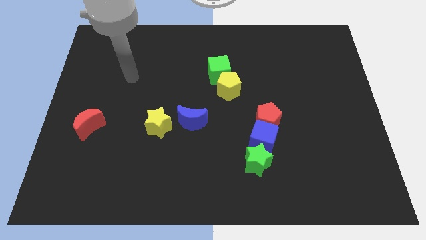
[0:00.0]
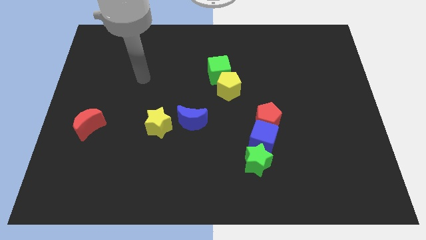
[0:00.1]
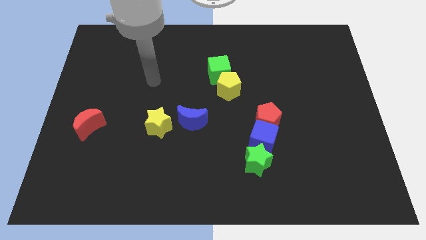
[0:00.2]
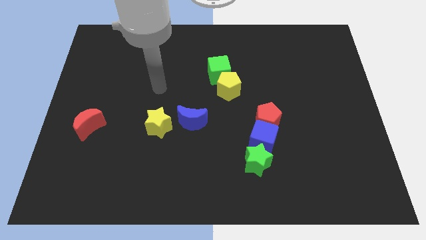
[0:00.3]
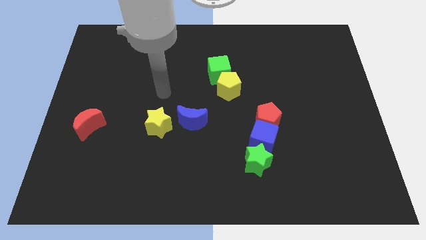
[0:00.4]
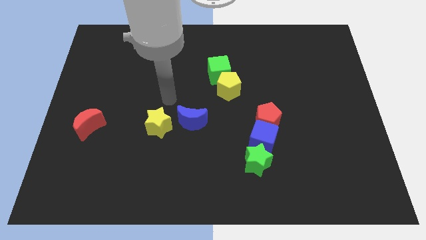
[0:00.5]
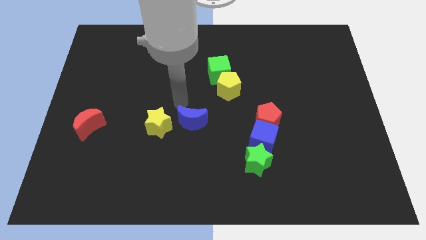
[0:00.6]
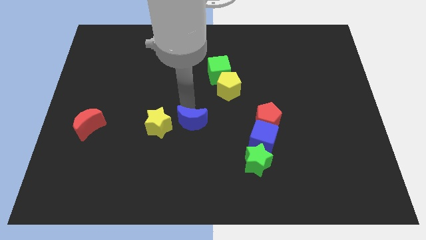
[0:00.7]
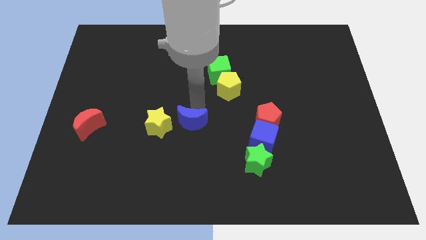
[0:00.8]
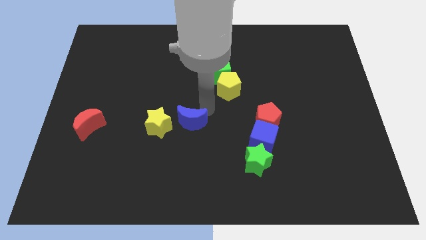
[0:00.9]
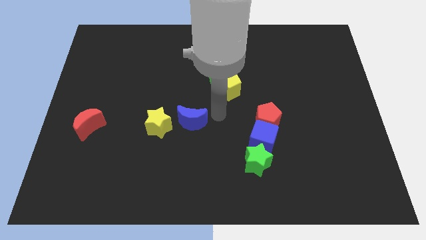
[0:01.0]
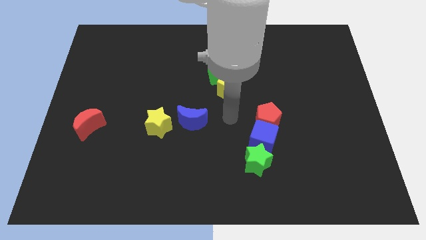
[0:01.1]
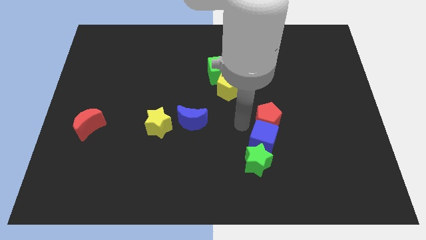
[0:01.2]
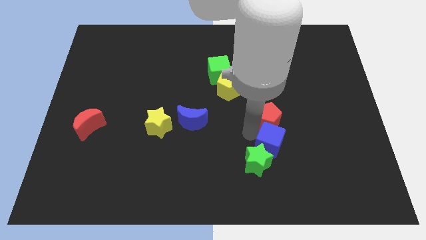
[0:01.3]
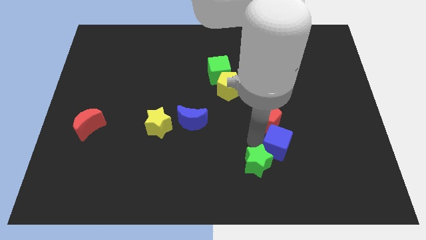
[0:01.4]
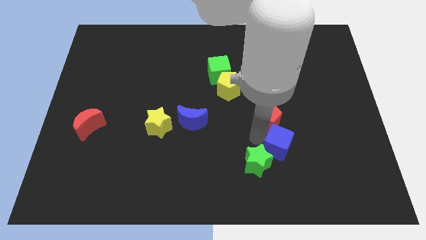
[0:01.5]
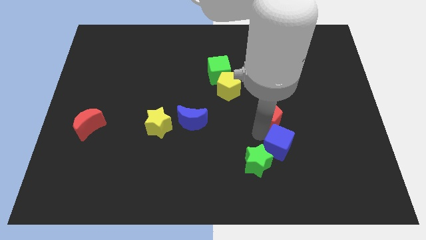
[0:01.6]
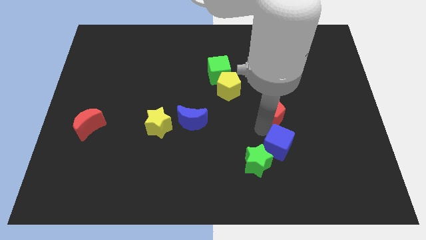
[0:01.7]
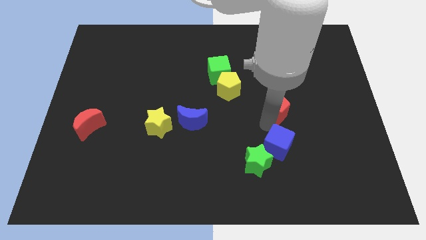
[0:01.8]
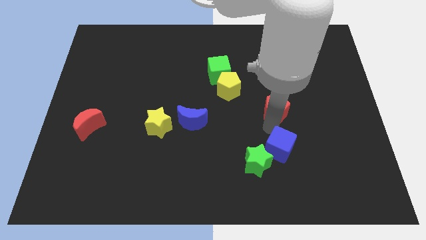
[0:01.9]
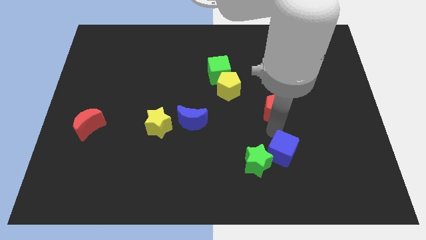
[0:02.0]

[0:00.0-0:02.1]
move the red pentagon away from the blue cube

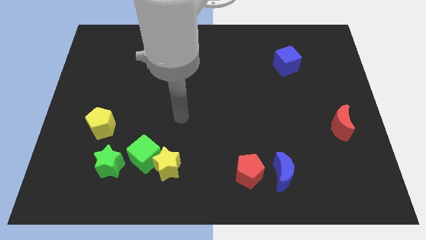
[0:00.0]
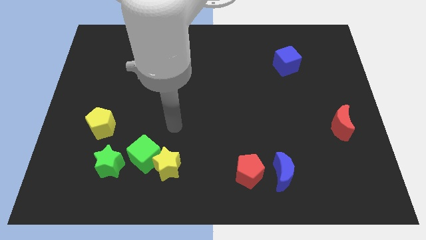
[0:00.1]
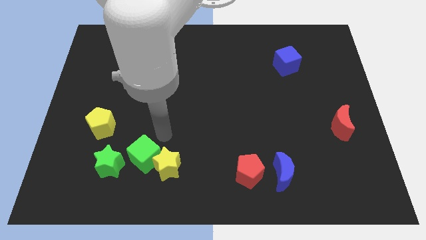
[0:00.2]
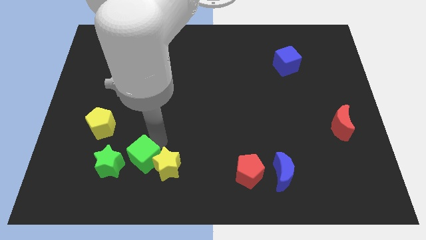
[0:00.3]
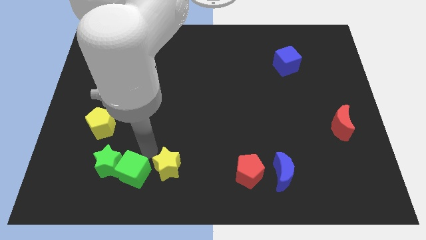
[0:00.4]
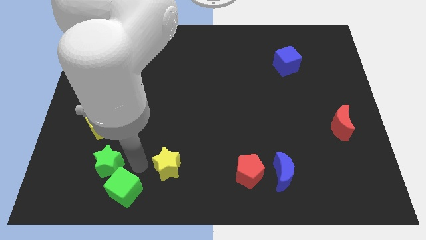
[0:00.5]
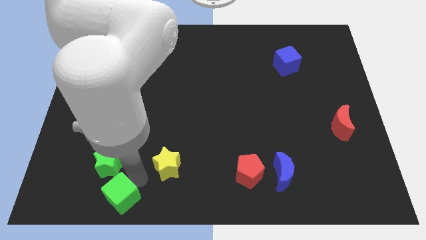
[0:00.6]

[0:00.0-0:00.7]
pull the yellow star apart from the green cube

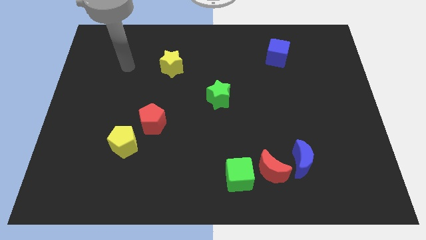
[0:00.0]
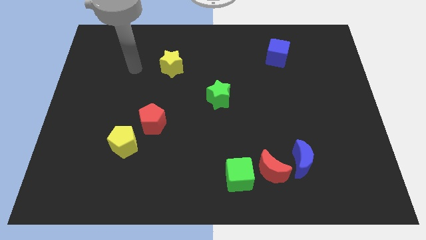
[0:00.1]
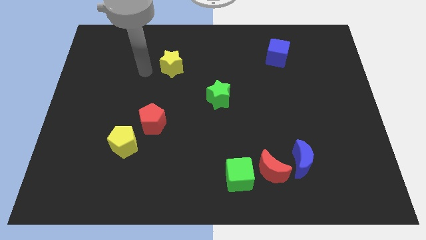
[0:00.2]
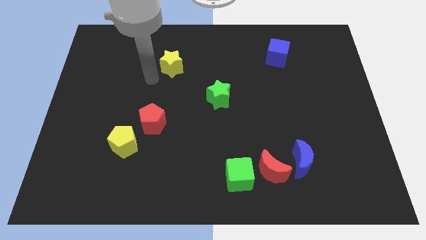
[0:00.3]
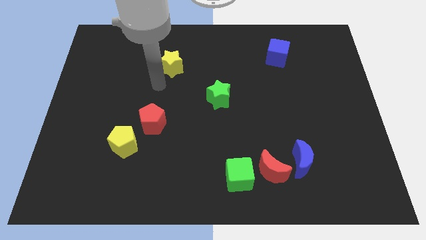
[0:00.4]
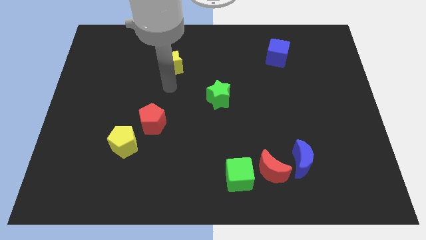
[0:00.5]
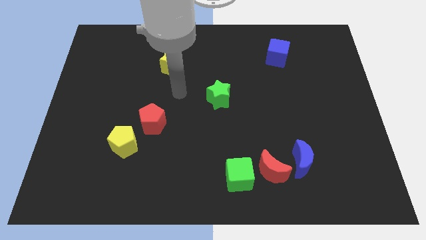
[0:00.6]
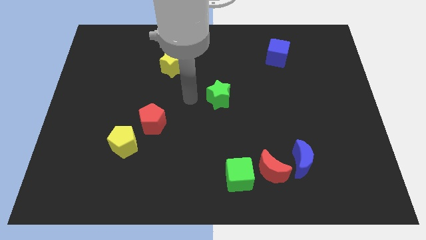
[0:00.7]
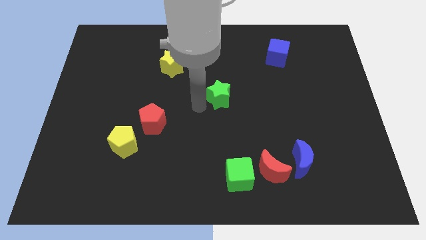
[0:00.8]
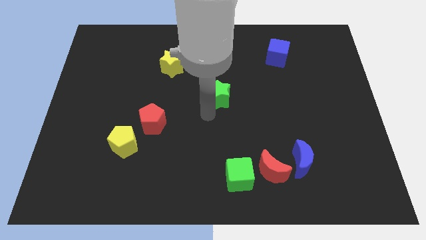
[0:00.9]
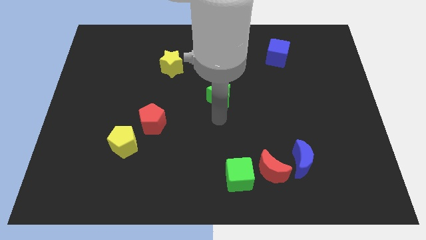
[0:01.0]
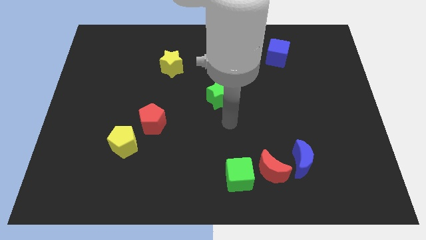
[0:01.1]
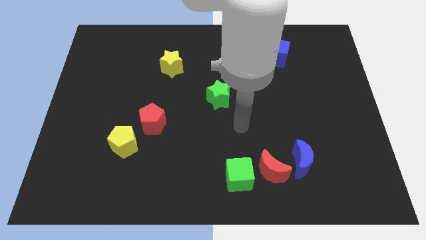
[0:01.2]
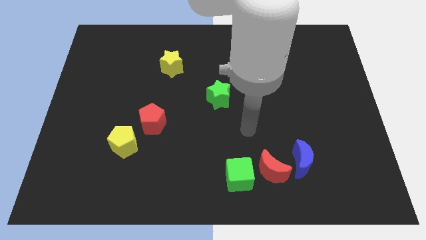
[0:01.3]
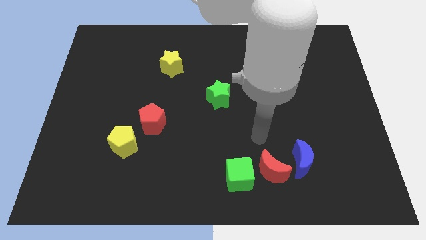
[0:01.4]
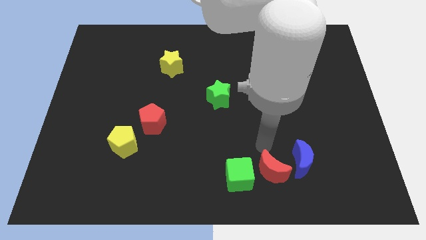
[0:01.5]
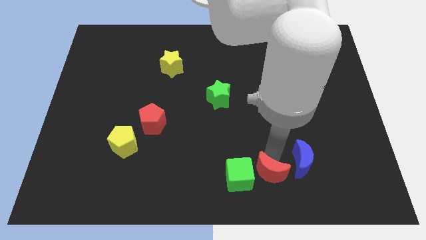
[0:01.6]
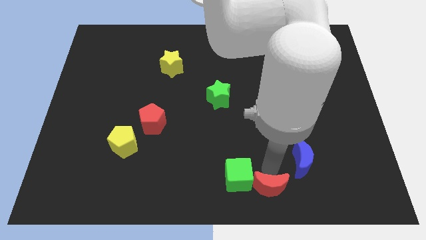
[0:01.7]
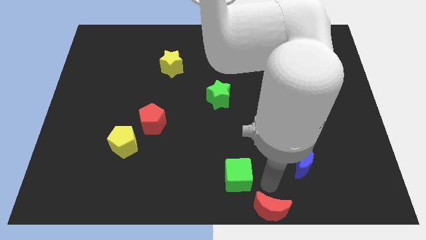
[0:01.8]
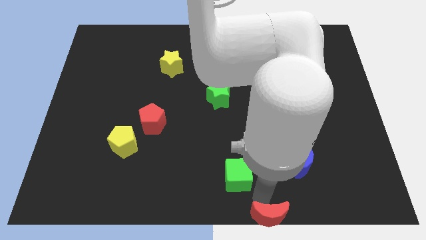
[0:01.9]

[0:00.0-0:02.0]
pull the green cube apart from the red moon

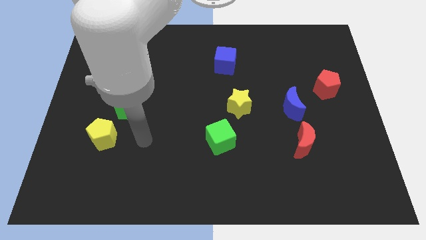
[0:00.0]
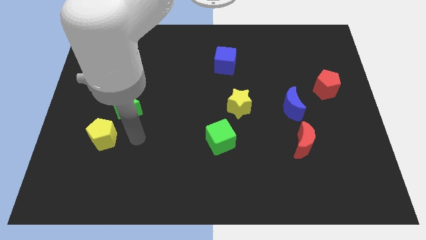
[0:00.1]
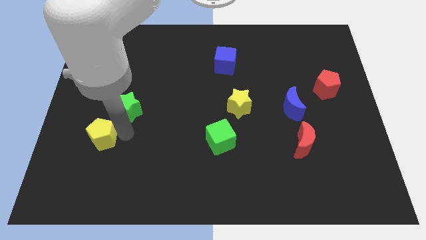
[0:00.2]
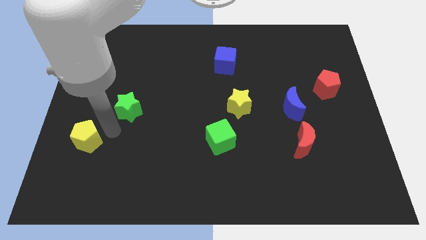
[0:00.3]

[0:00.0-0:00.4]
separate the green star from the yellow pentagon

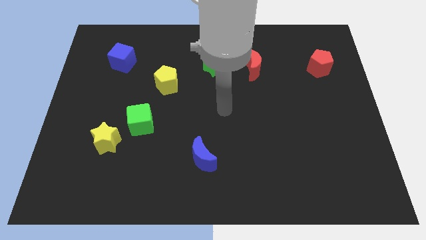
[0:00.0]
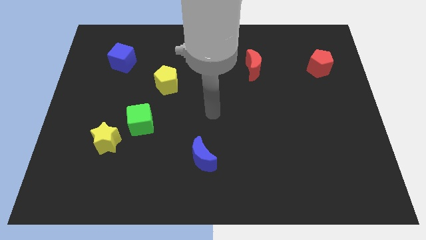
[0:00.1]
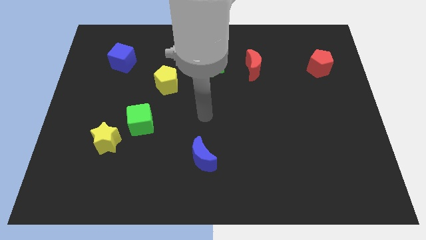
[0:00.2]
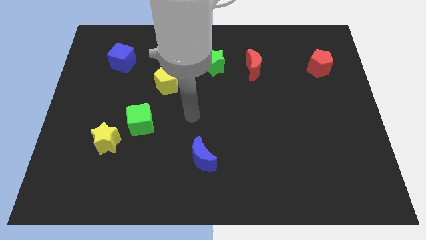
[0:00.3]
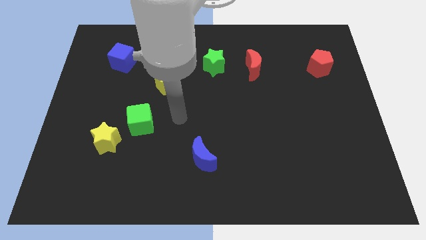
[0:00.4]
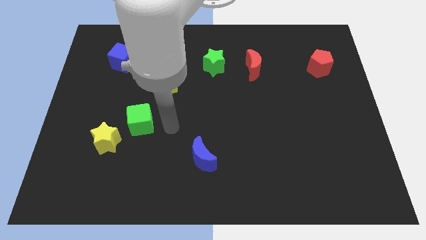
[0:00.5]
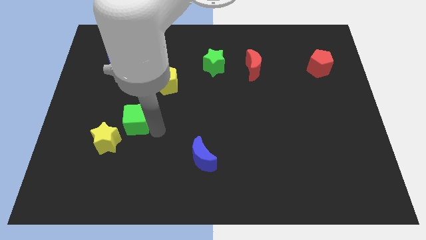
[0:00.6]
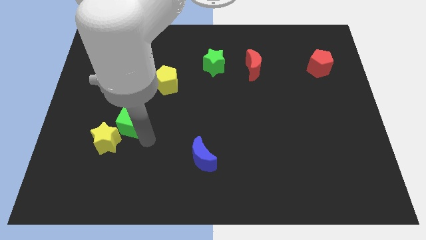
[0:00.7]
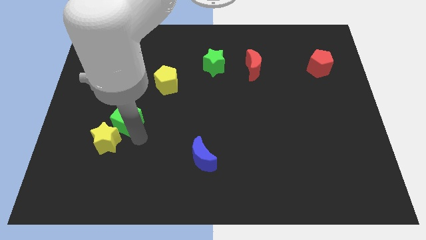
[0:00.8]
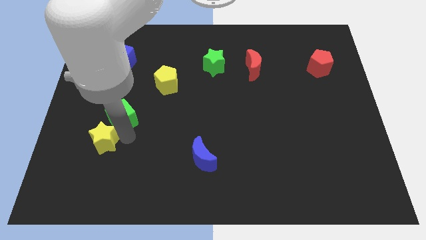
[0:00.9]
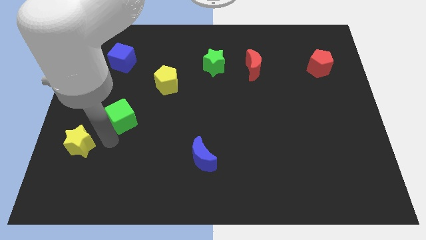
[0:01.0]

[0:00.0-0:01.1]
separate the green cube from the yellow star

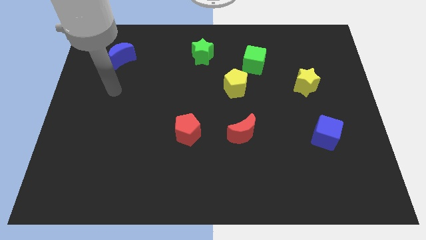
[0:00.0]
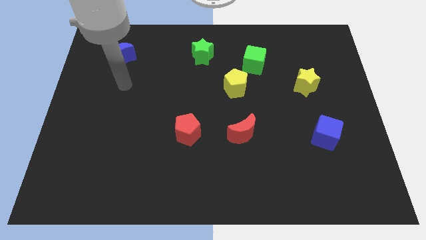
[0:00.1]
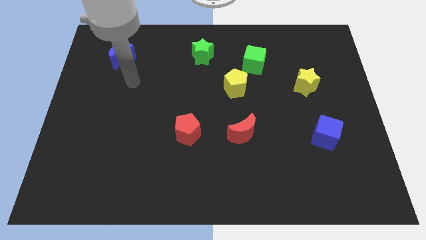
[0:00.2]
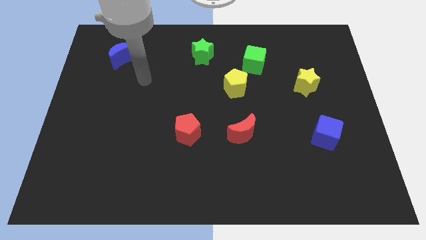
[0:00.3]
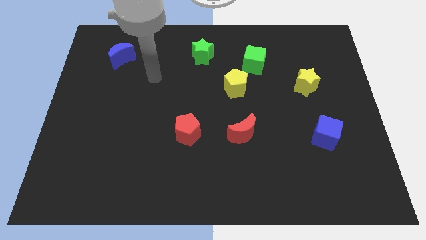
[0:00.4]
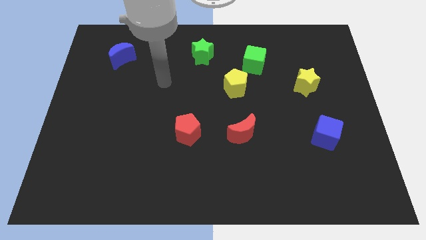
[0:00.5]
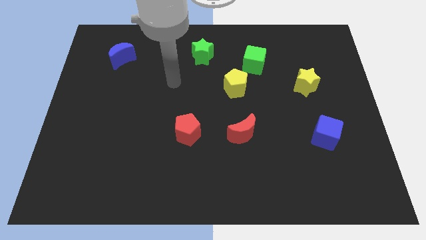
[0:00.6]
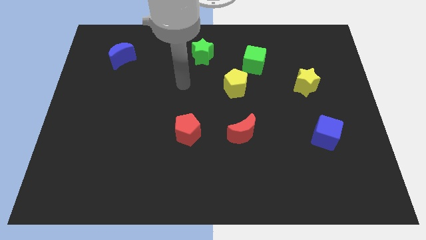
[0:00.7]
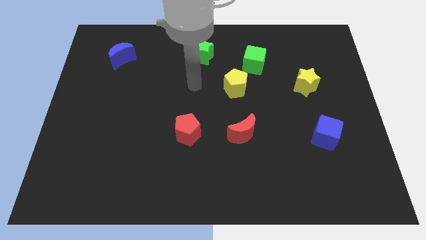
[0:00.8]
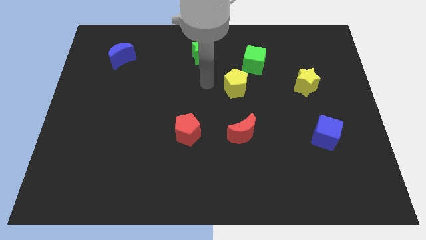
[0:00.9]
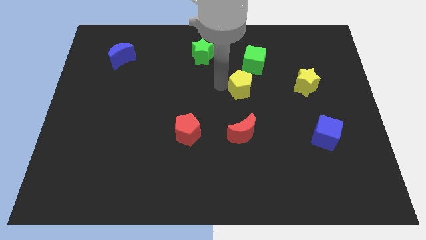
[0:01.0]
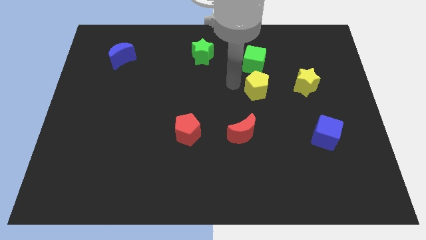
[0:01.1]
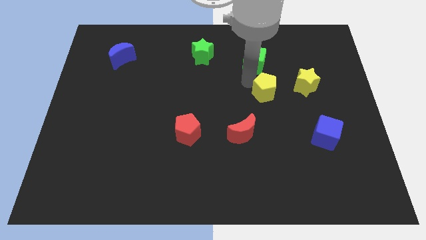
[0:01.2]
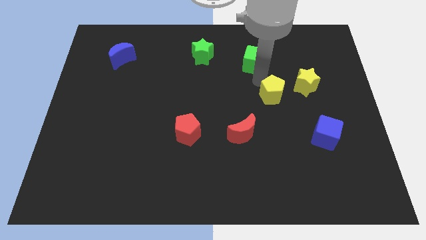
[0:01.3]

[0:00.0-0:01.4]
move the green cube away from the yellow pentagon

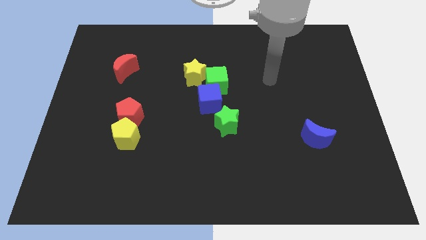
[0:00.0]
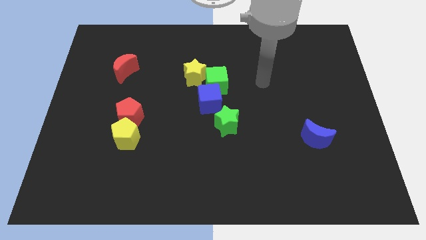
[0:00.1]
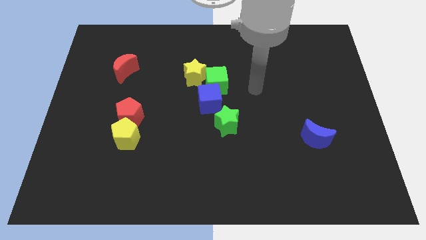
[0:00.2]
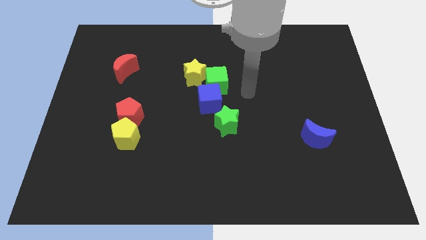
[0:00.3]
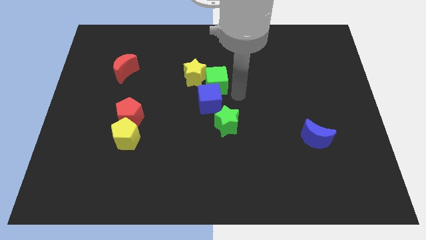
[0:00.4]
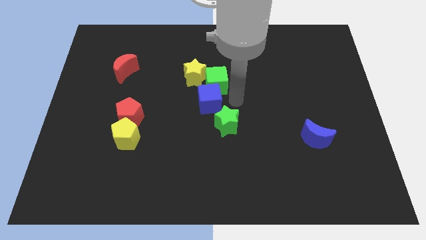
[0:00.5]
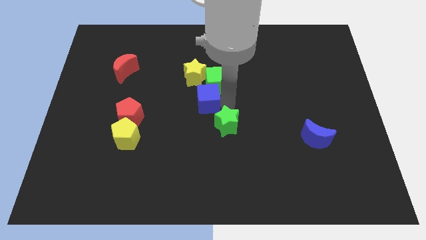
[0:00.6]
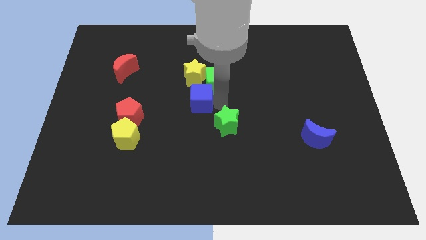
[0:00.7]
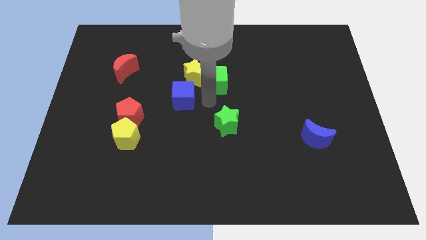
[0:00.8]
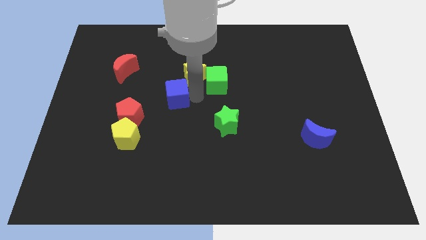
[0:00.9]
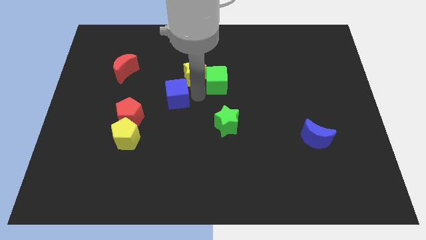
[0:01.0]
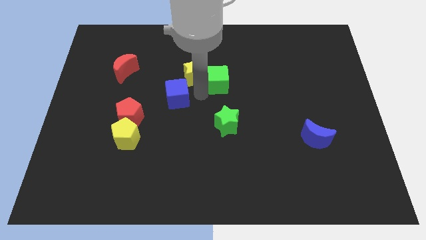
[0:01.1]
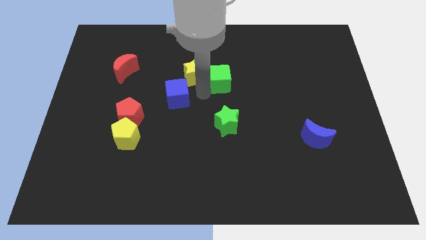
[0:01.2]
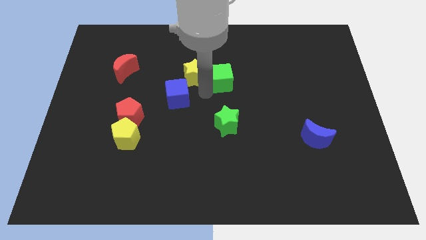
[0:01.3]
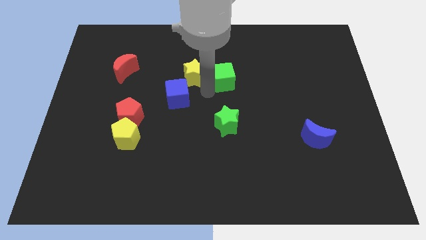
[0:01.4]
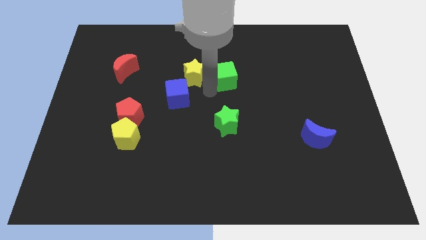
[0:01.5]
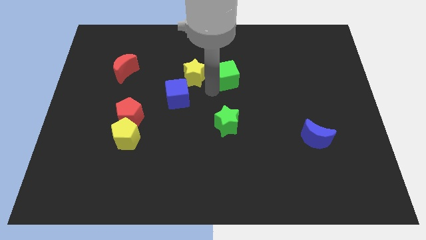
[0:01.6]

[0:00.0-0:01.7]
move the green cube away from the yellow star and blue cube
